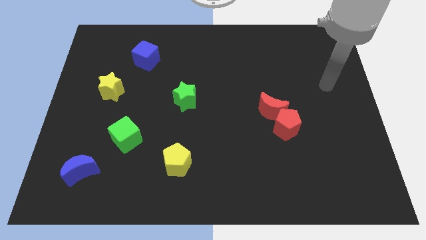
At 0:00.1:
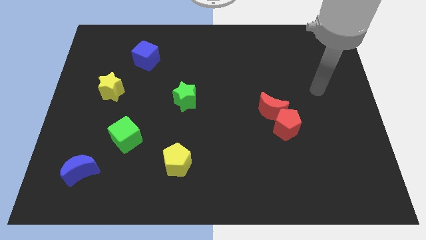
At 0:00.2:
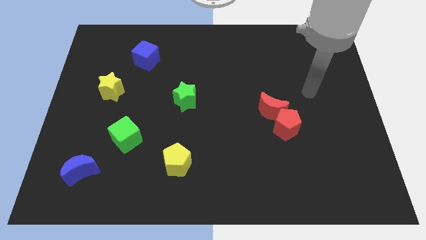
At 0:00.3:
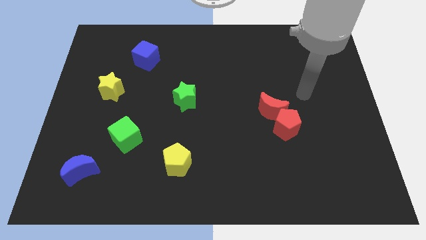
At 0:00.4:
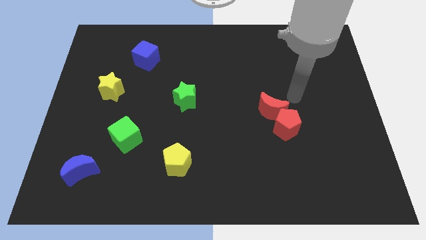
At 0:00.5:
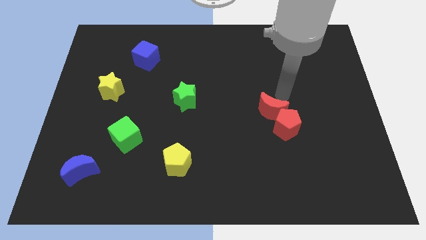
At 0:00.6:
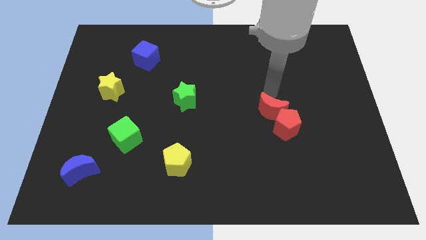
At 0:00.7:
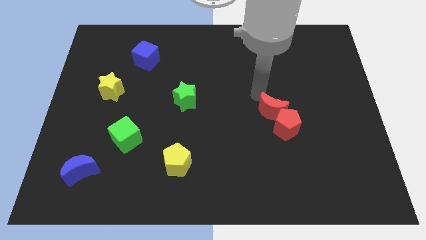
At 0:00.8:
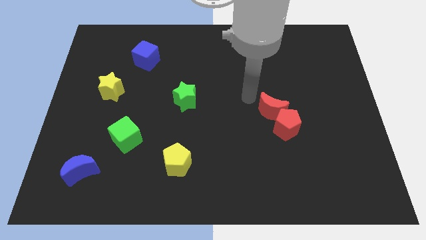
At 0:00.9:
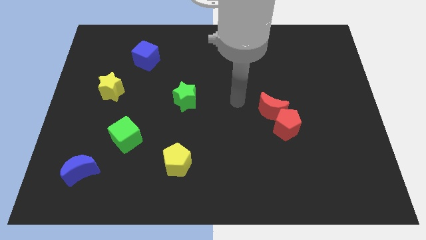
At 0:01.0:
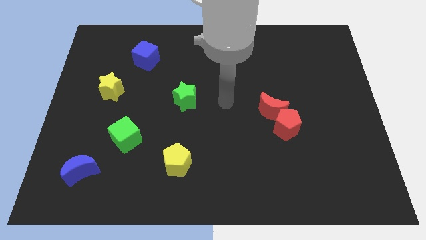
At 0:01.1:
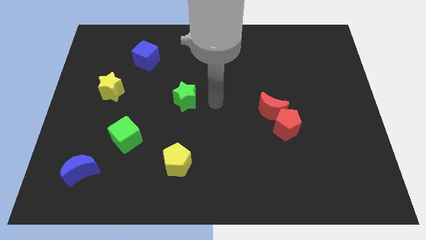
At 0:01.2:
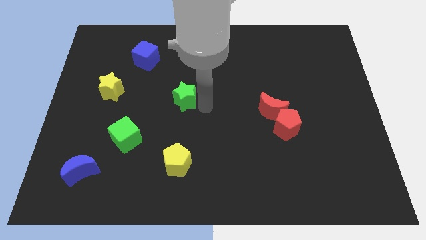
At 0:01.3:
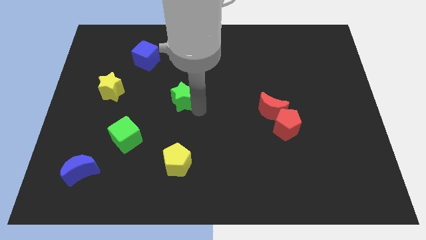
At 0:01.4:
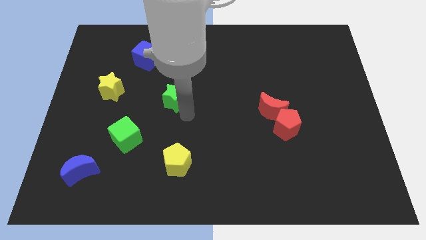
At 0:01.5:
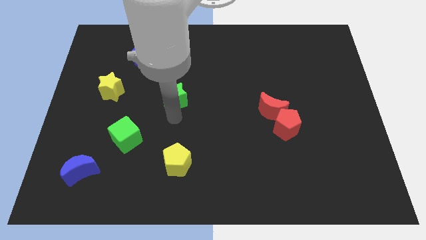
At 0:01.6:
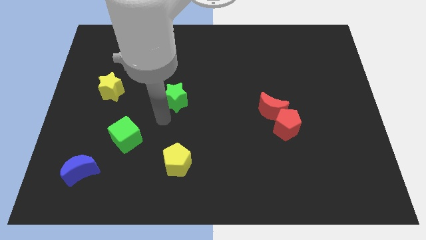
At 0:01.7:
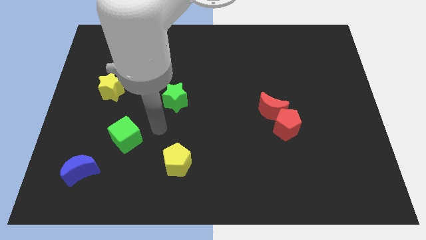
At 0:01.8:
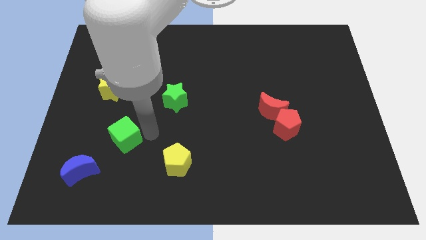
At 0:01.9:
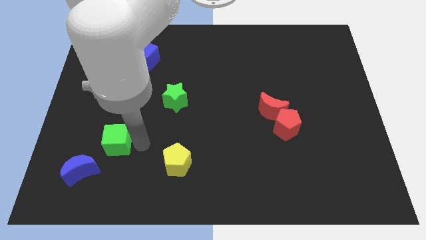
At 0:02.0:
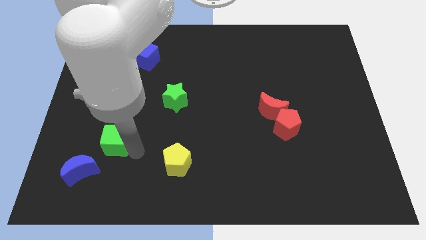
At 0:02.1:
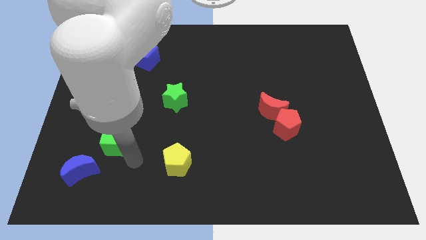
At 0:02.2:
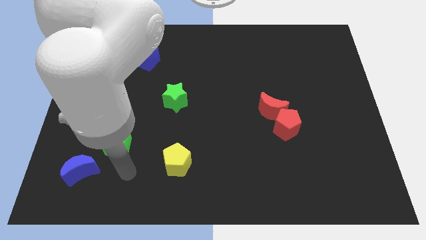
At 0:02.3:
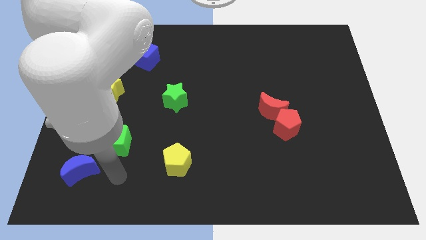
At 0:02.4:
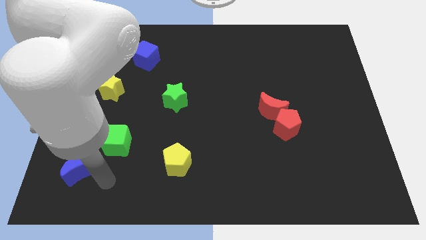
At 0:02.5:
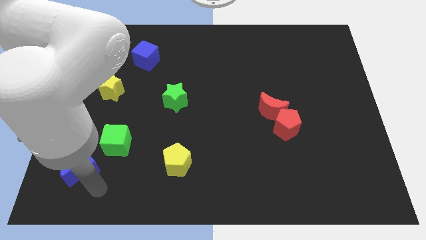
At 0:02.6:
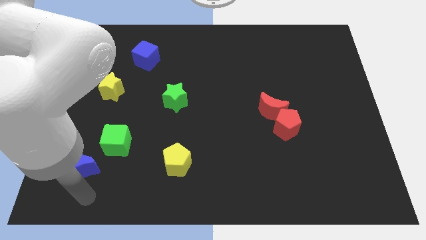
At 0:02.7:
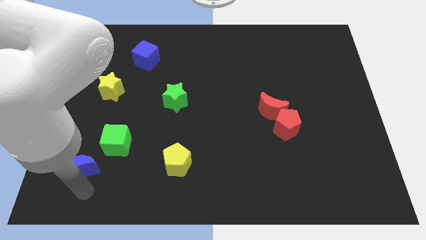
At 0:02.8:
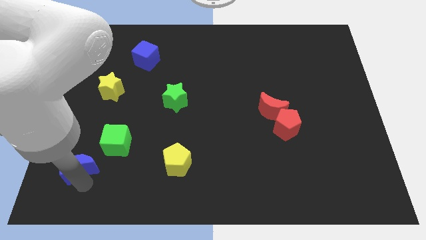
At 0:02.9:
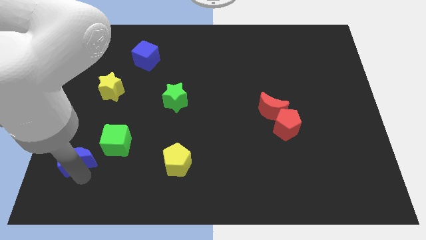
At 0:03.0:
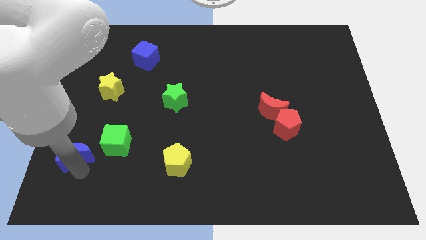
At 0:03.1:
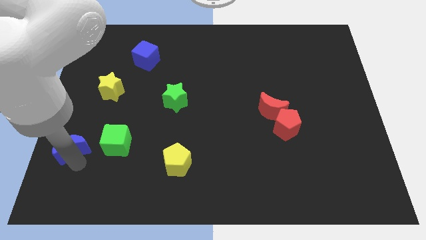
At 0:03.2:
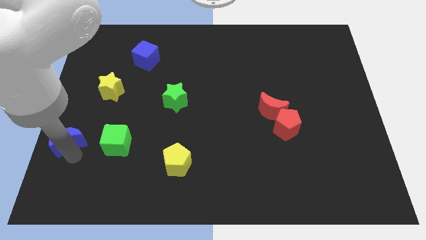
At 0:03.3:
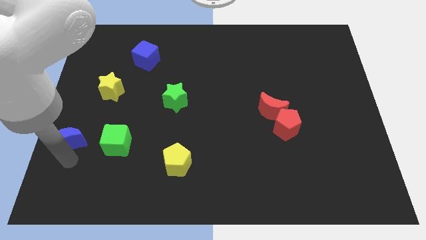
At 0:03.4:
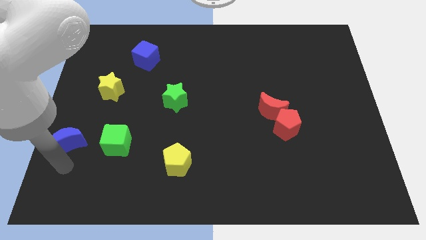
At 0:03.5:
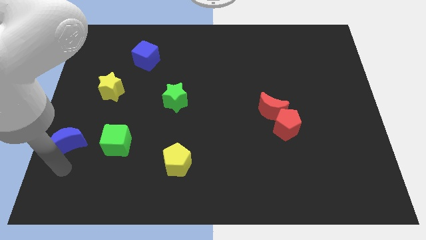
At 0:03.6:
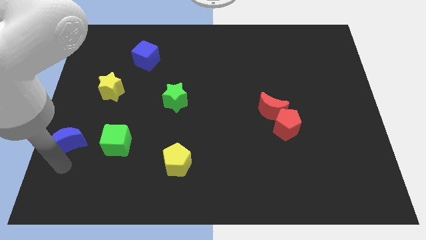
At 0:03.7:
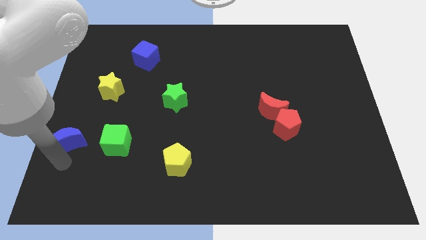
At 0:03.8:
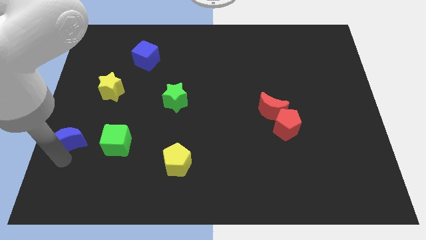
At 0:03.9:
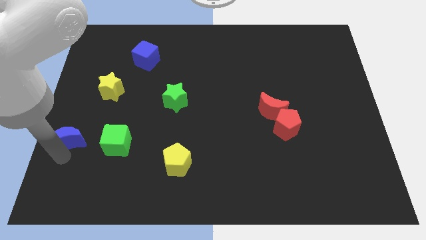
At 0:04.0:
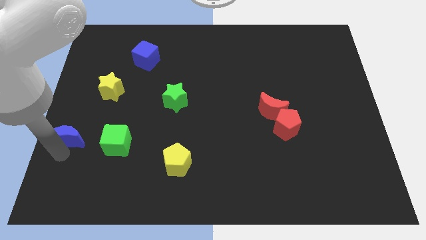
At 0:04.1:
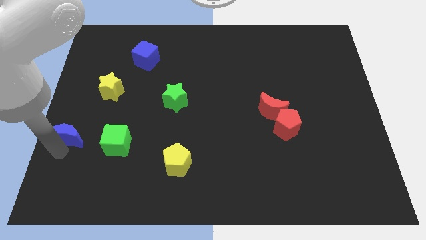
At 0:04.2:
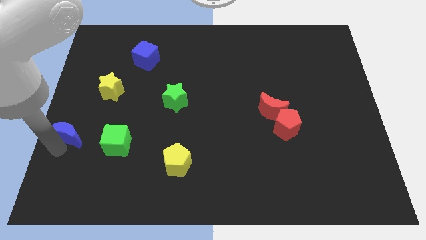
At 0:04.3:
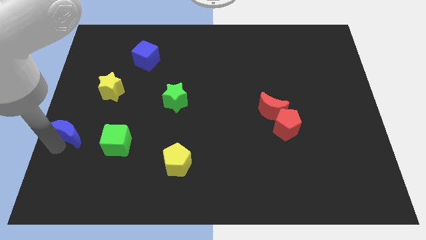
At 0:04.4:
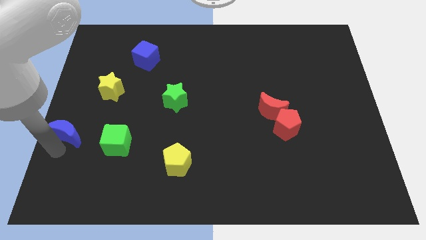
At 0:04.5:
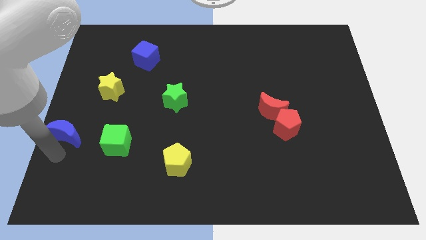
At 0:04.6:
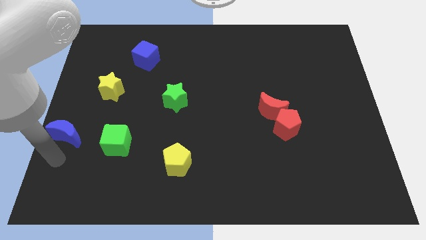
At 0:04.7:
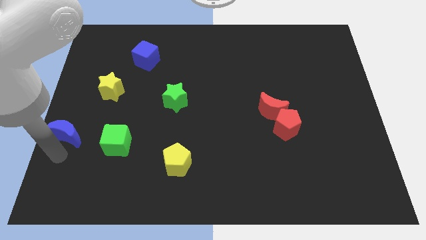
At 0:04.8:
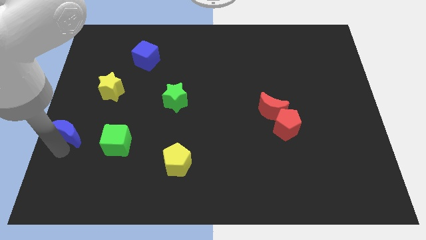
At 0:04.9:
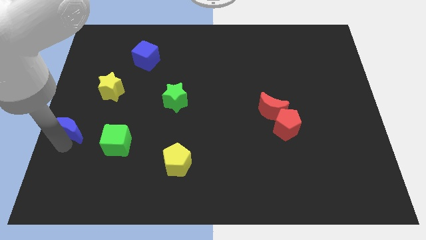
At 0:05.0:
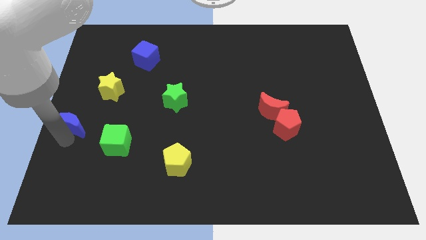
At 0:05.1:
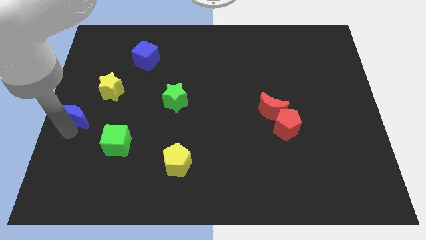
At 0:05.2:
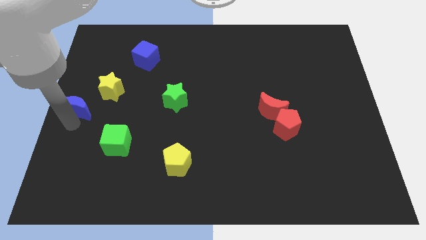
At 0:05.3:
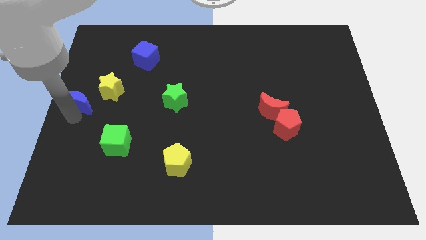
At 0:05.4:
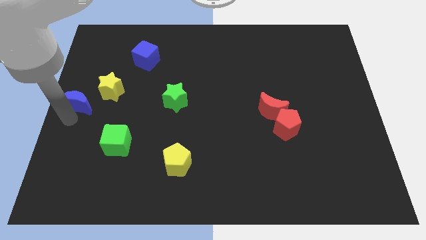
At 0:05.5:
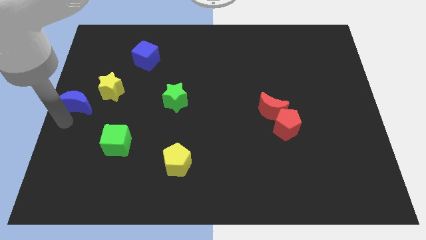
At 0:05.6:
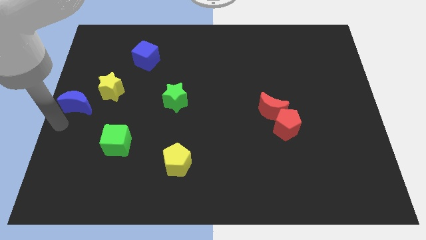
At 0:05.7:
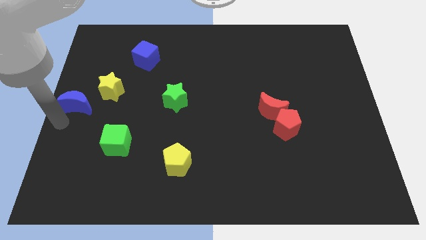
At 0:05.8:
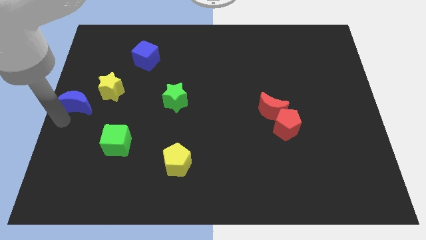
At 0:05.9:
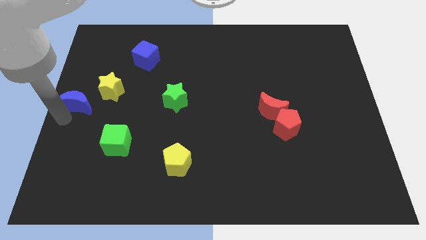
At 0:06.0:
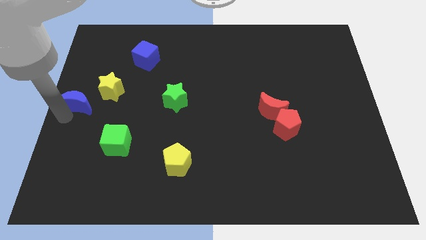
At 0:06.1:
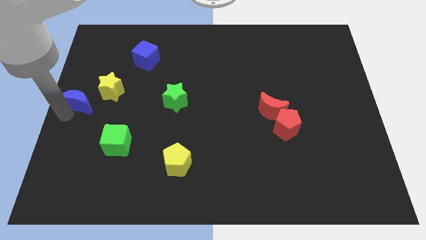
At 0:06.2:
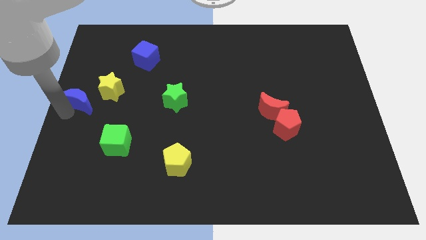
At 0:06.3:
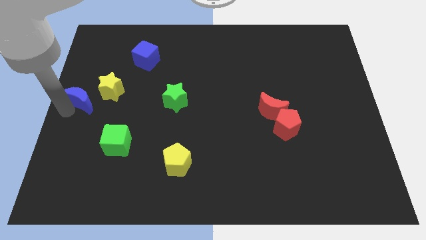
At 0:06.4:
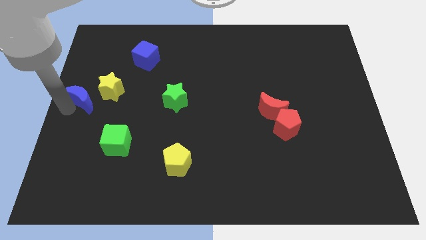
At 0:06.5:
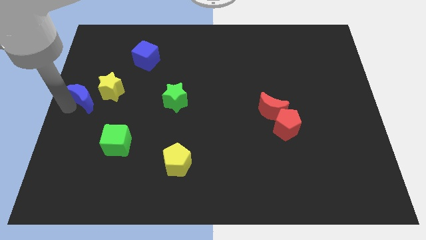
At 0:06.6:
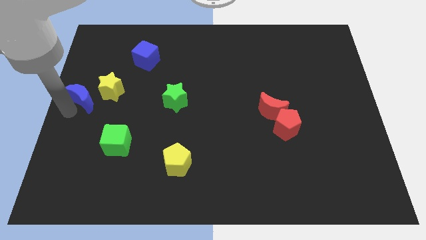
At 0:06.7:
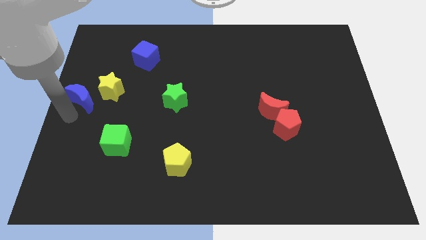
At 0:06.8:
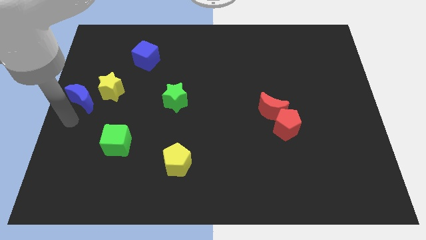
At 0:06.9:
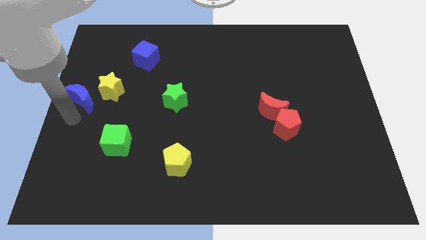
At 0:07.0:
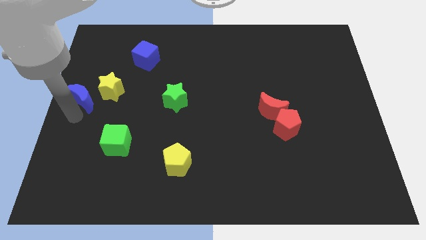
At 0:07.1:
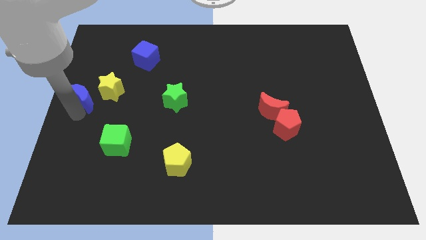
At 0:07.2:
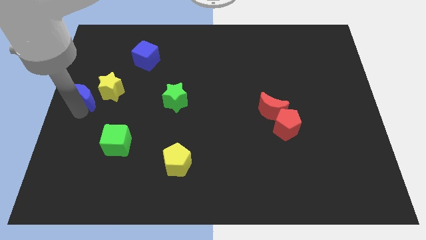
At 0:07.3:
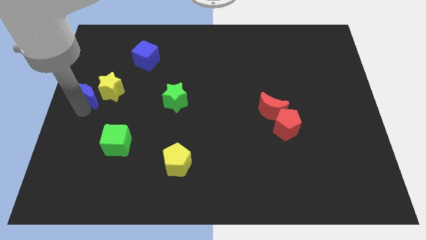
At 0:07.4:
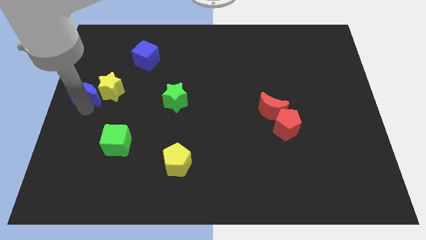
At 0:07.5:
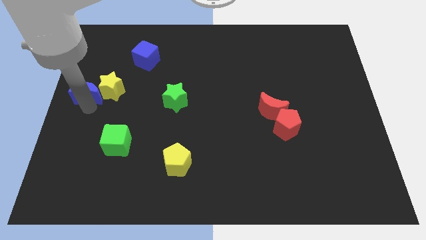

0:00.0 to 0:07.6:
move the blue moon up
